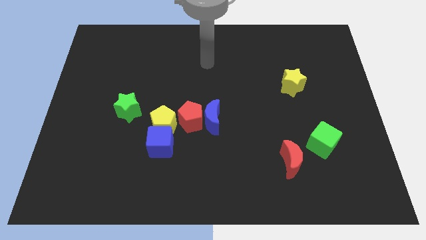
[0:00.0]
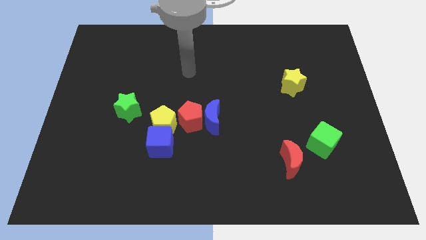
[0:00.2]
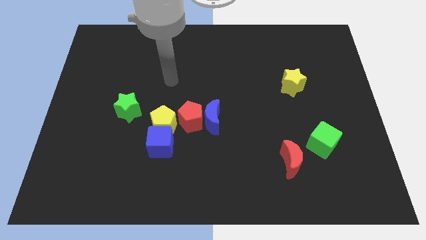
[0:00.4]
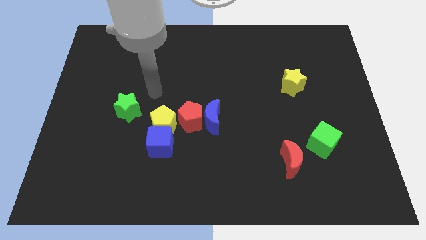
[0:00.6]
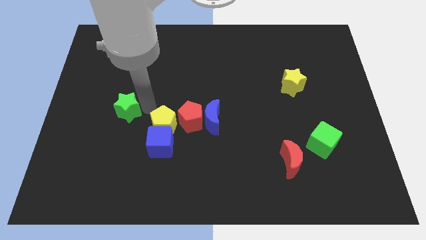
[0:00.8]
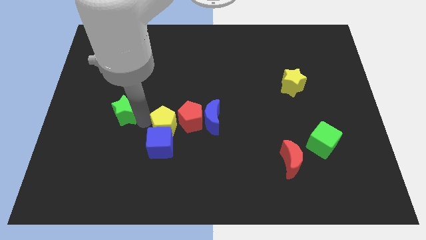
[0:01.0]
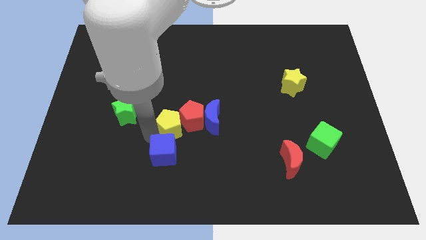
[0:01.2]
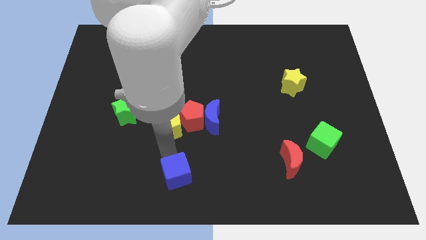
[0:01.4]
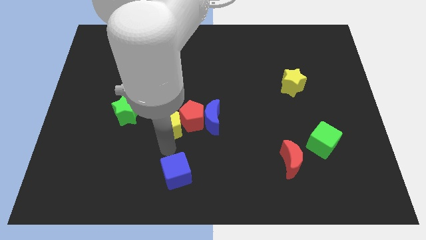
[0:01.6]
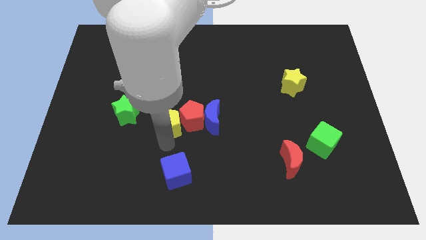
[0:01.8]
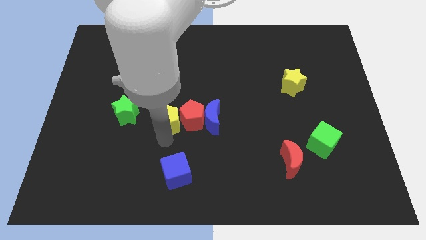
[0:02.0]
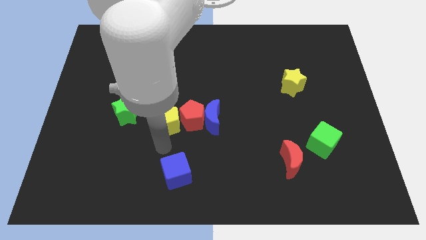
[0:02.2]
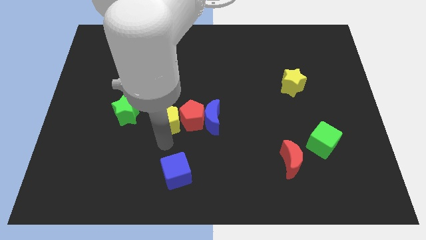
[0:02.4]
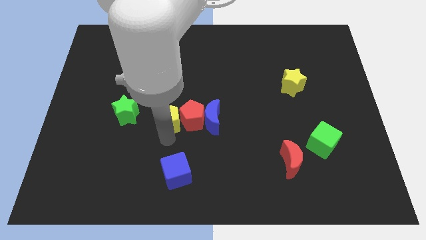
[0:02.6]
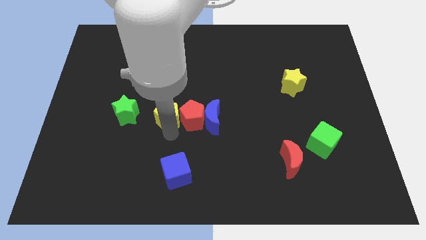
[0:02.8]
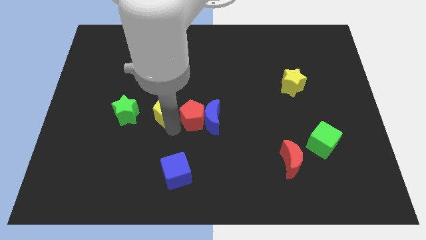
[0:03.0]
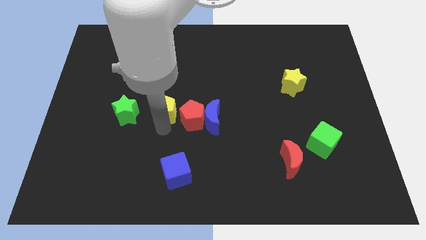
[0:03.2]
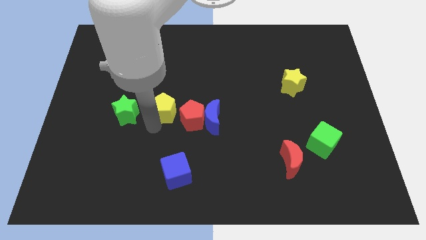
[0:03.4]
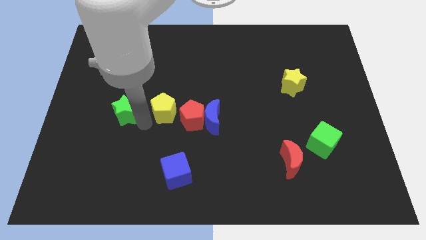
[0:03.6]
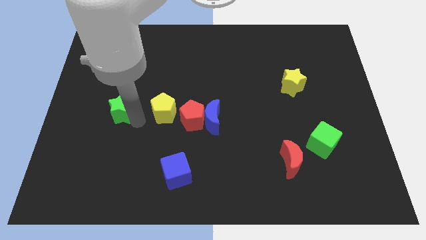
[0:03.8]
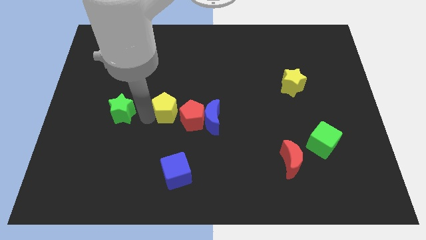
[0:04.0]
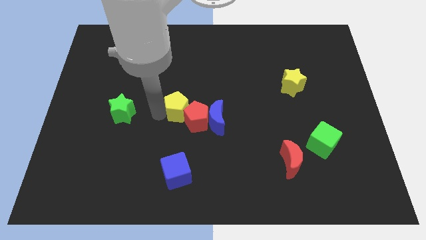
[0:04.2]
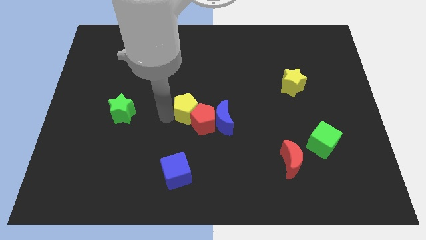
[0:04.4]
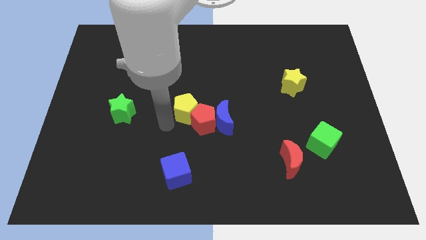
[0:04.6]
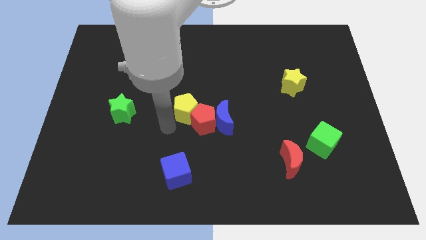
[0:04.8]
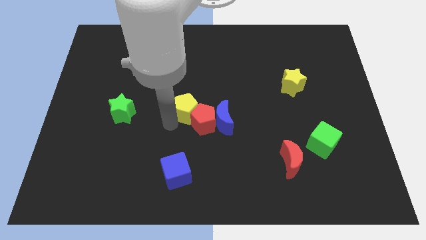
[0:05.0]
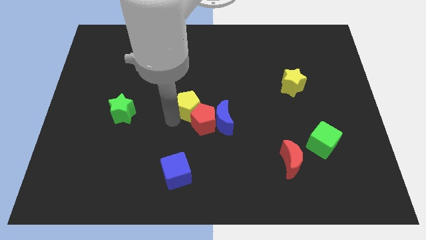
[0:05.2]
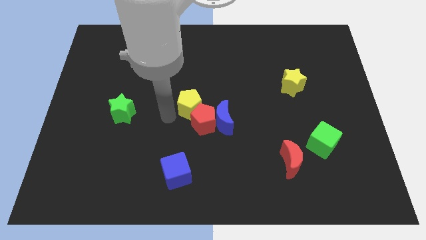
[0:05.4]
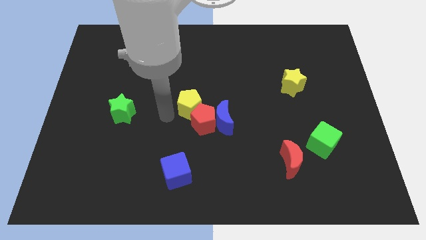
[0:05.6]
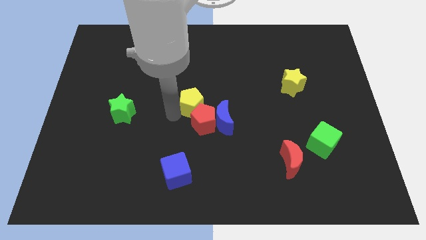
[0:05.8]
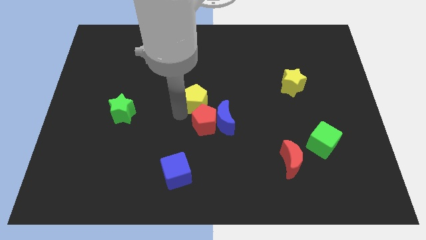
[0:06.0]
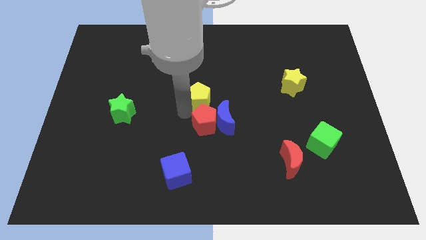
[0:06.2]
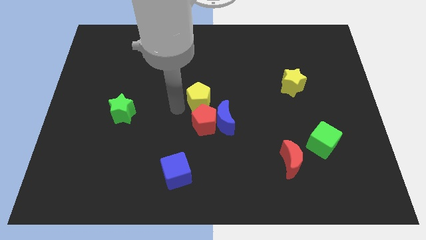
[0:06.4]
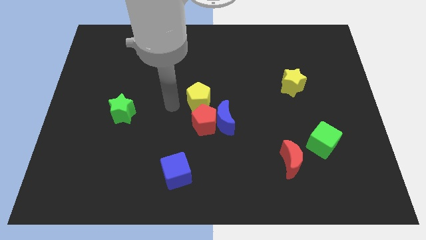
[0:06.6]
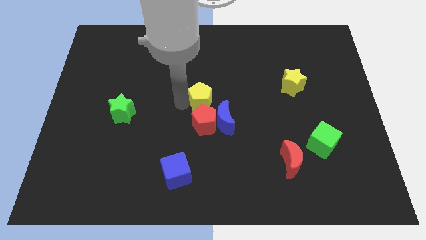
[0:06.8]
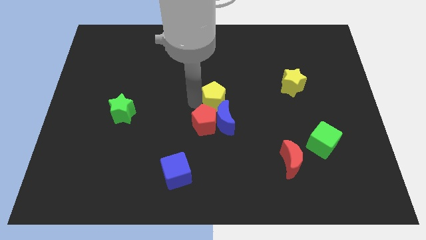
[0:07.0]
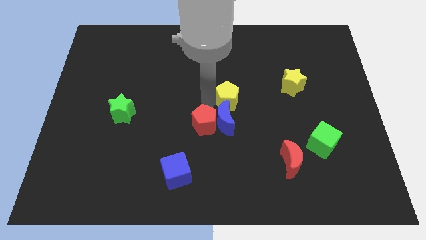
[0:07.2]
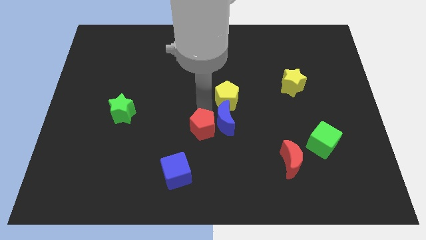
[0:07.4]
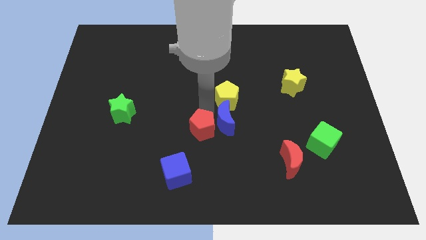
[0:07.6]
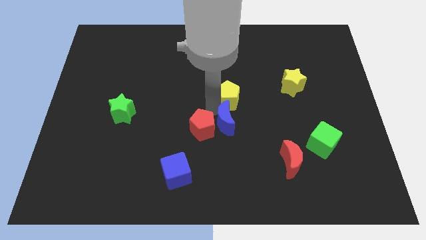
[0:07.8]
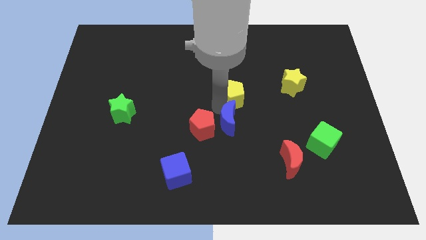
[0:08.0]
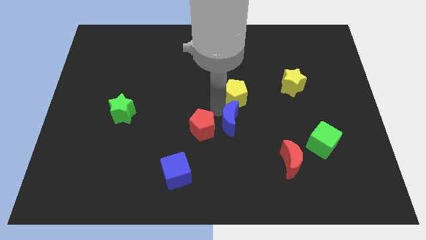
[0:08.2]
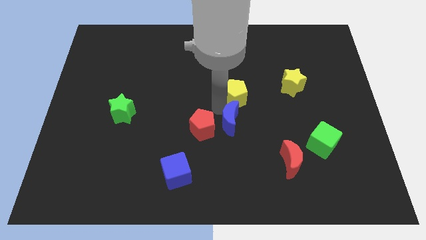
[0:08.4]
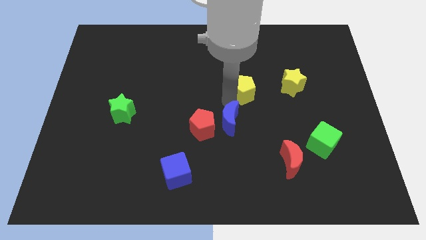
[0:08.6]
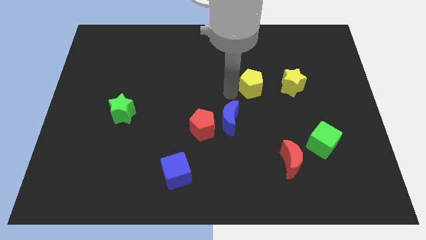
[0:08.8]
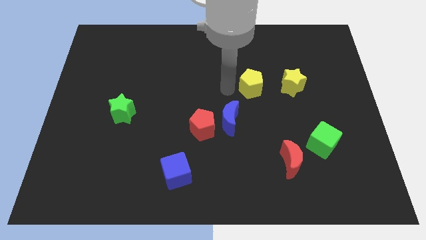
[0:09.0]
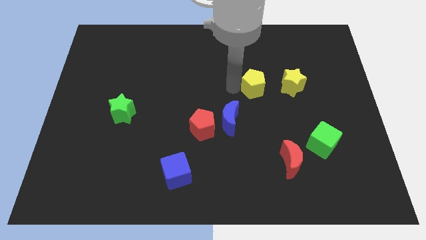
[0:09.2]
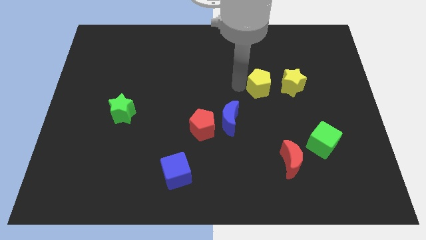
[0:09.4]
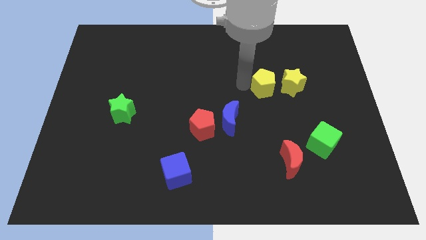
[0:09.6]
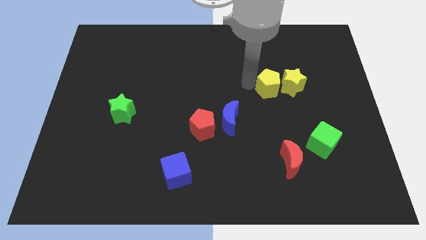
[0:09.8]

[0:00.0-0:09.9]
put the yellow pentagon to the yellow star

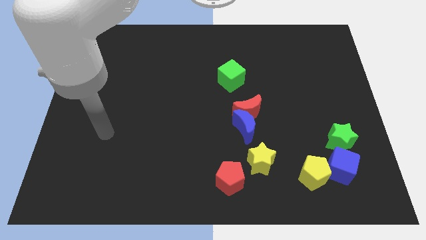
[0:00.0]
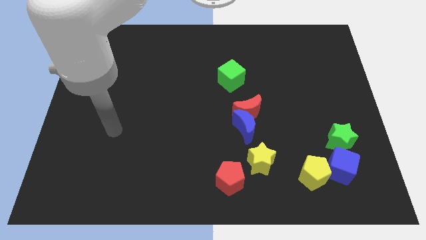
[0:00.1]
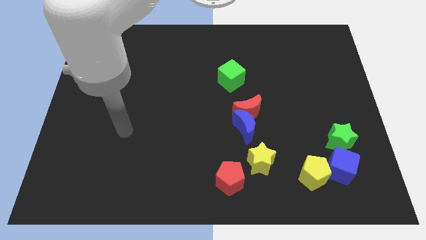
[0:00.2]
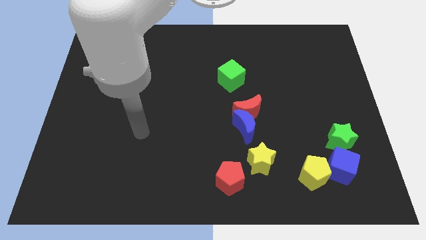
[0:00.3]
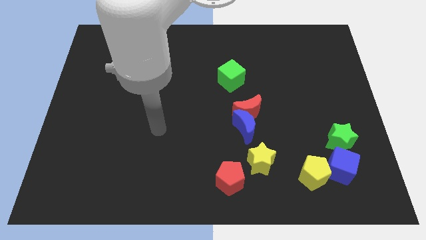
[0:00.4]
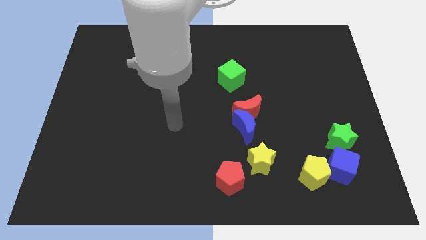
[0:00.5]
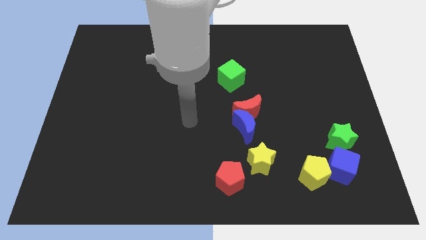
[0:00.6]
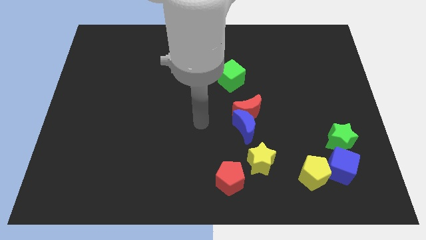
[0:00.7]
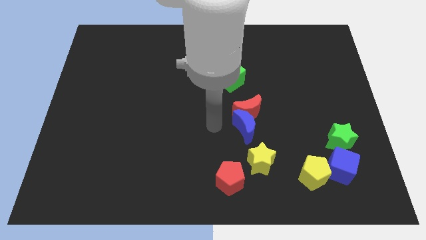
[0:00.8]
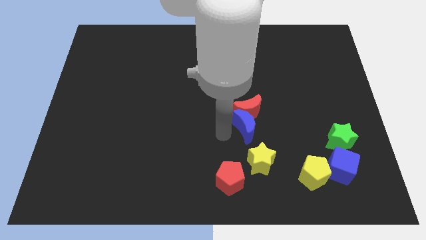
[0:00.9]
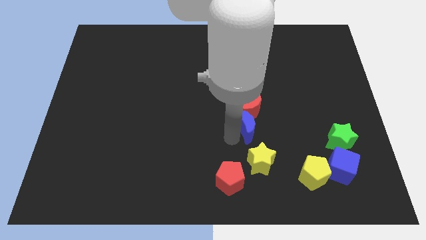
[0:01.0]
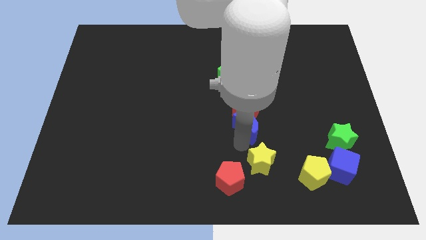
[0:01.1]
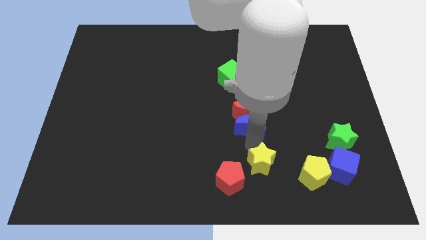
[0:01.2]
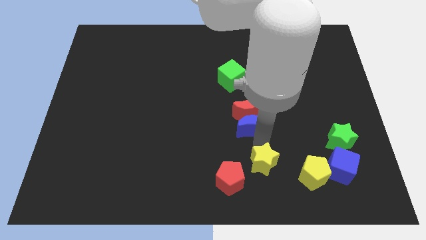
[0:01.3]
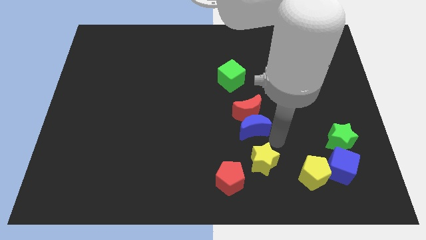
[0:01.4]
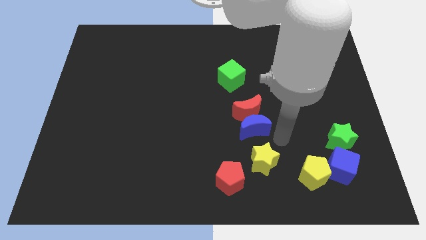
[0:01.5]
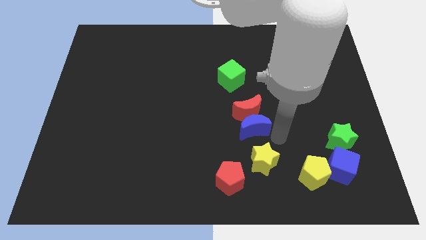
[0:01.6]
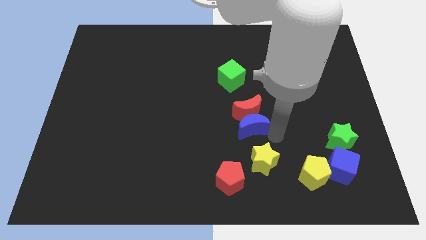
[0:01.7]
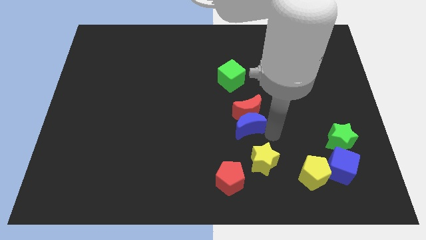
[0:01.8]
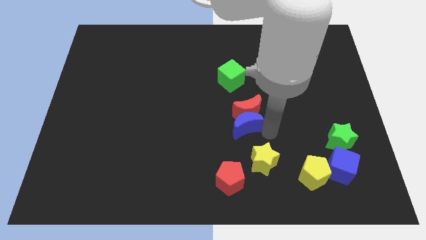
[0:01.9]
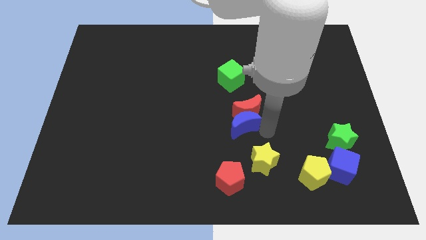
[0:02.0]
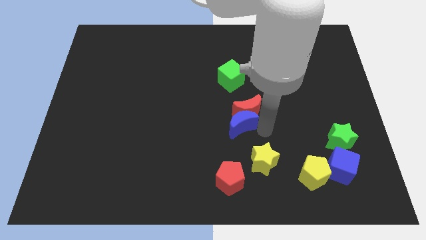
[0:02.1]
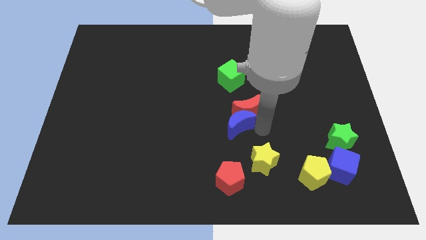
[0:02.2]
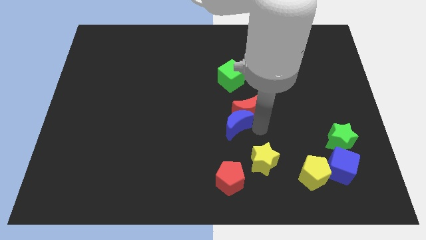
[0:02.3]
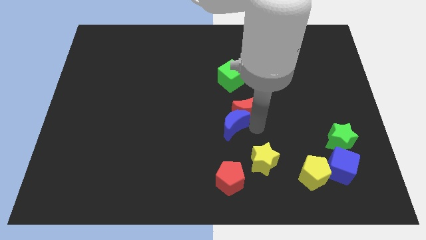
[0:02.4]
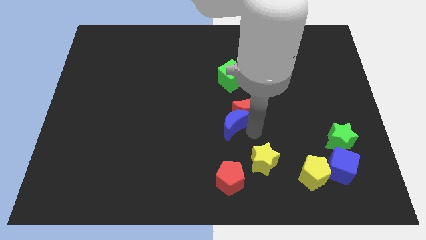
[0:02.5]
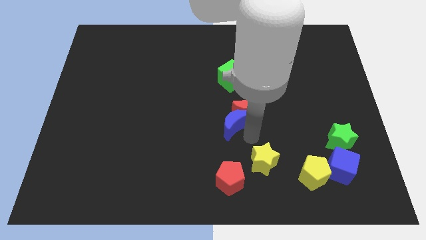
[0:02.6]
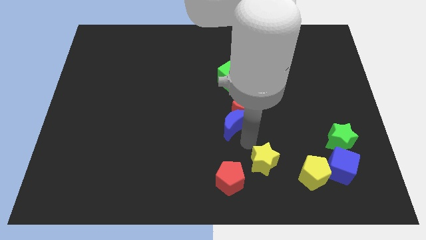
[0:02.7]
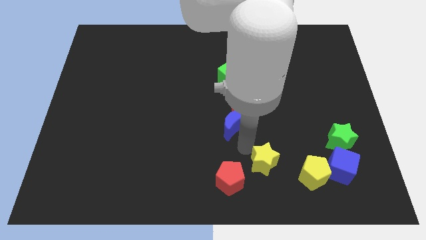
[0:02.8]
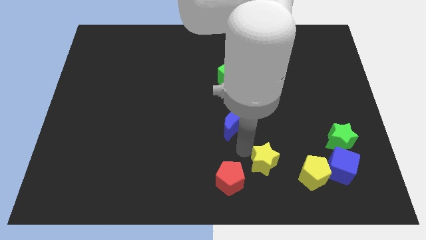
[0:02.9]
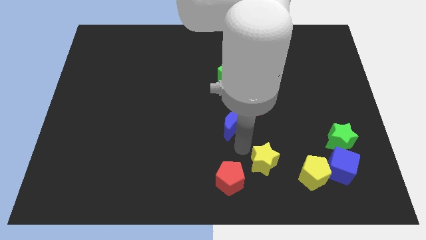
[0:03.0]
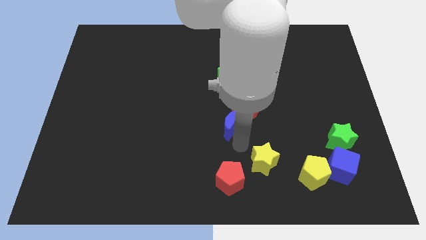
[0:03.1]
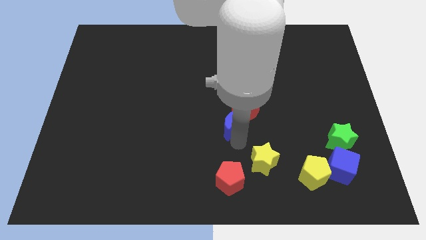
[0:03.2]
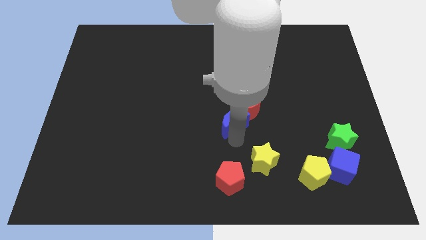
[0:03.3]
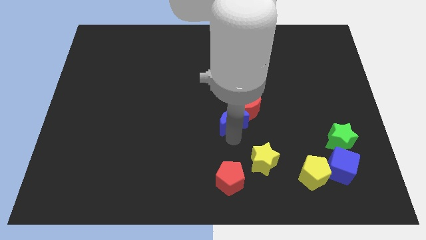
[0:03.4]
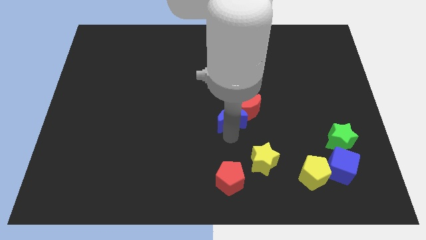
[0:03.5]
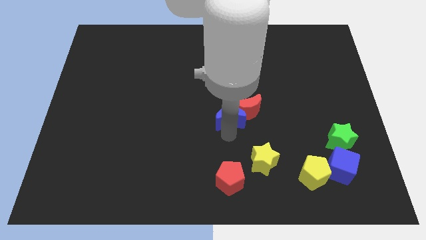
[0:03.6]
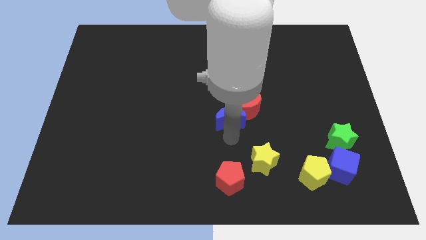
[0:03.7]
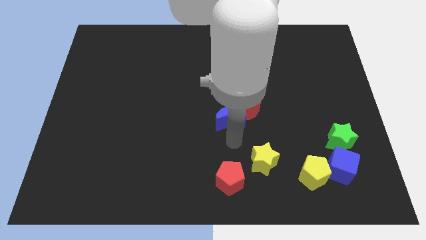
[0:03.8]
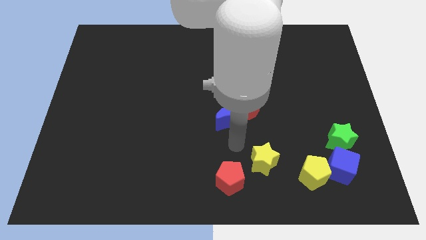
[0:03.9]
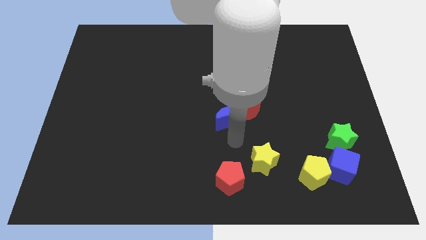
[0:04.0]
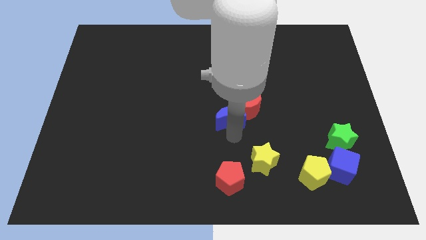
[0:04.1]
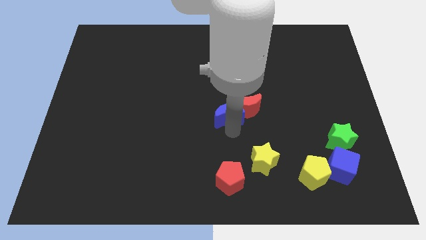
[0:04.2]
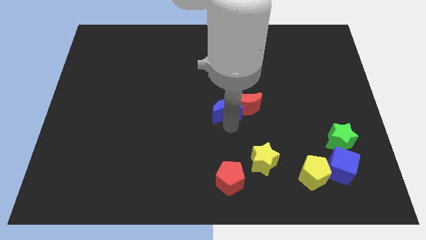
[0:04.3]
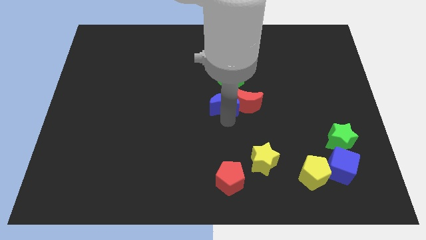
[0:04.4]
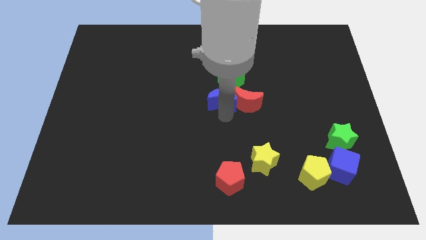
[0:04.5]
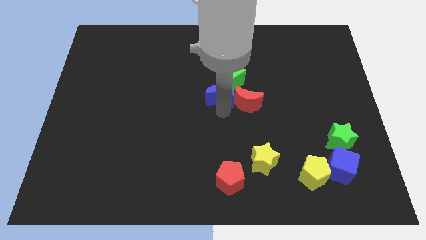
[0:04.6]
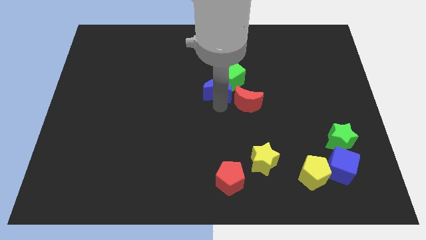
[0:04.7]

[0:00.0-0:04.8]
put the blue moon next to the green cube
